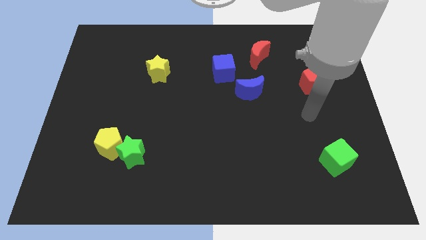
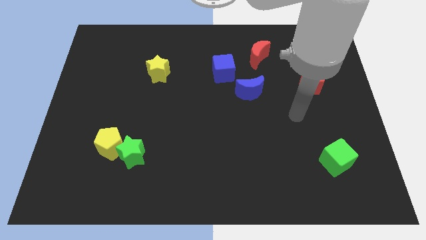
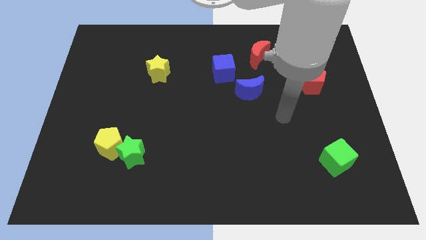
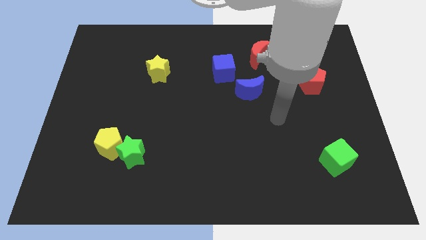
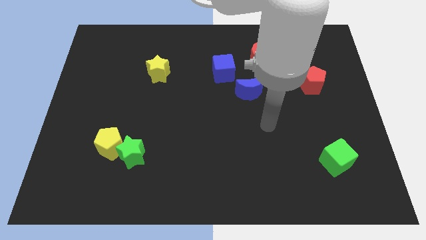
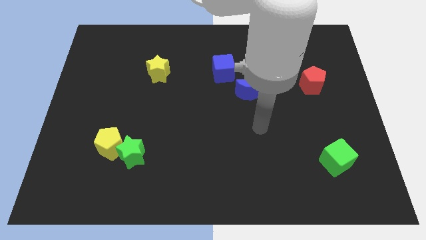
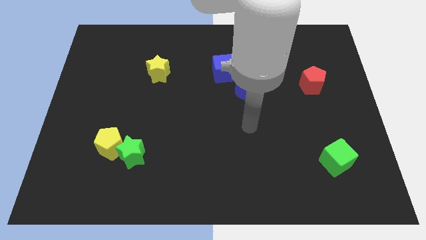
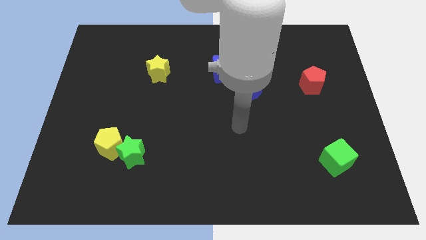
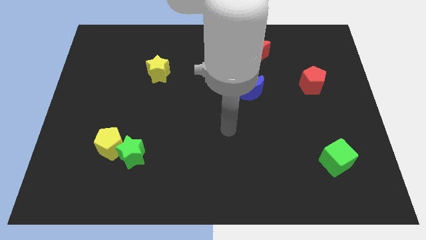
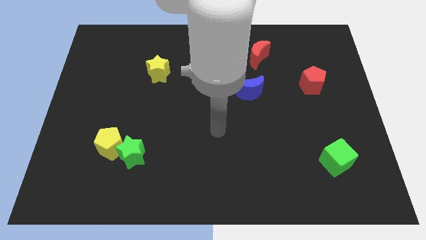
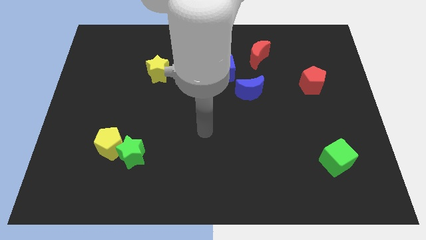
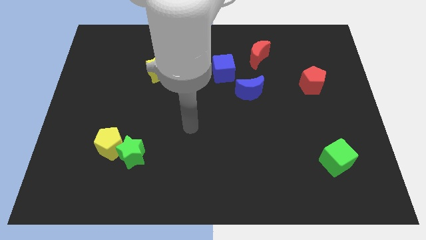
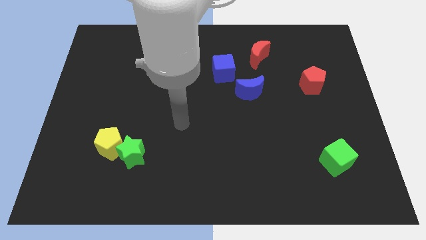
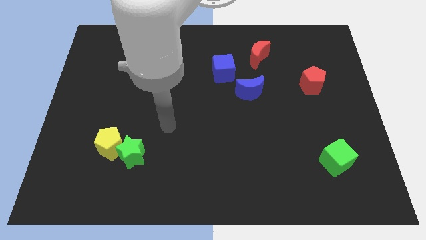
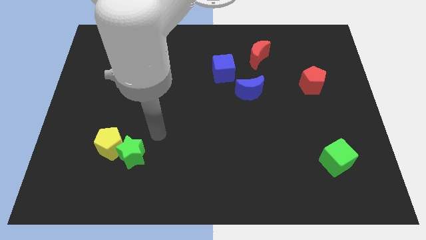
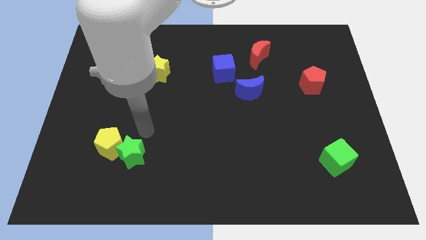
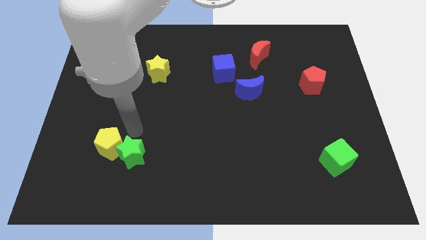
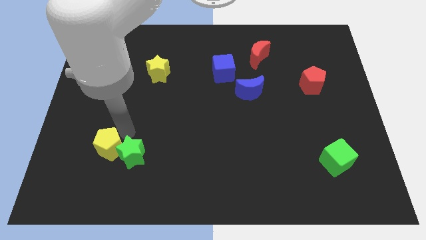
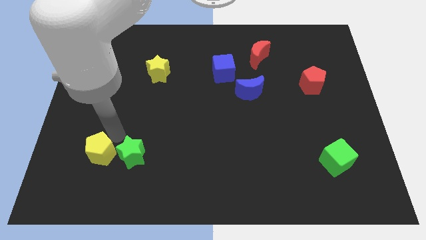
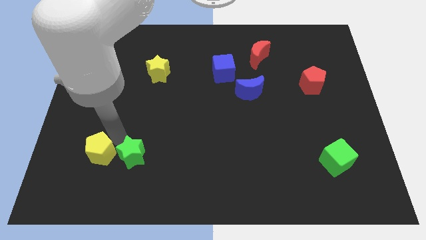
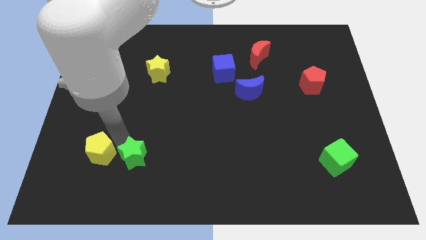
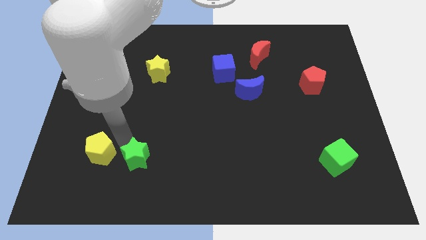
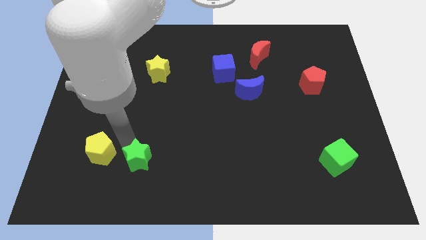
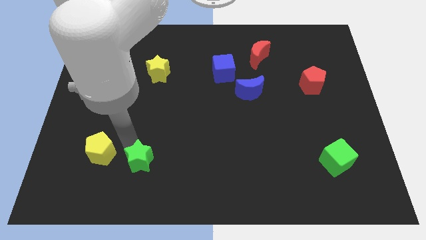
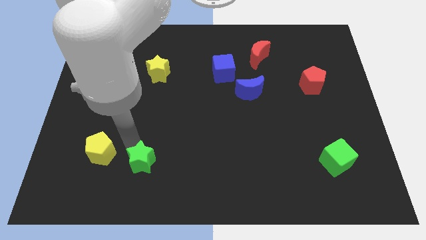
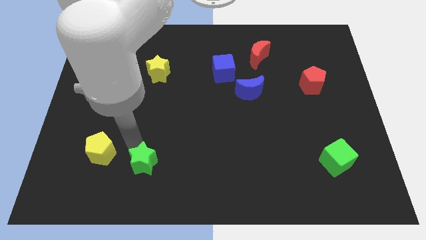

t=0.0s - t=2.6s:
separate the green star from the yellow pentagon

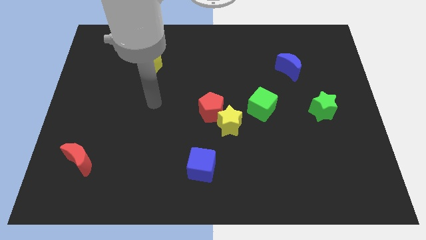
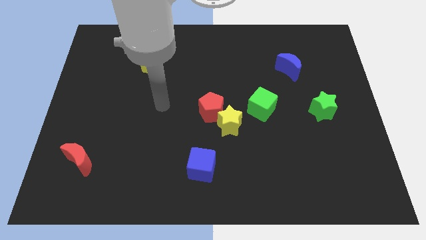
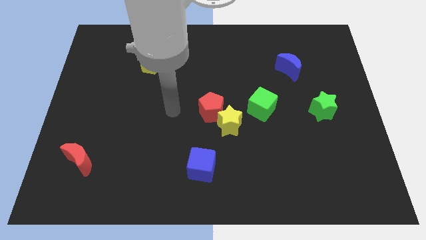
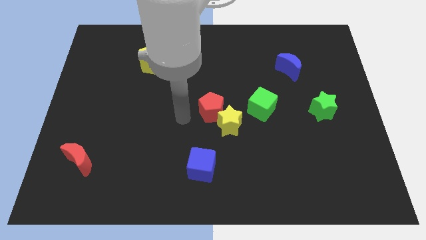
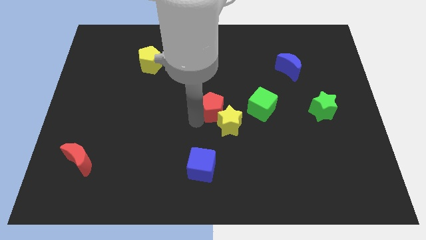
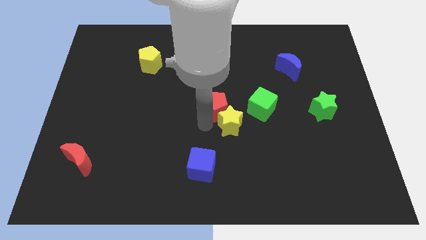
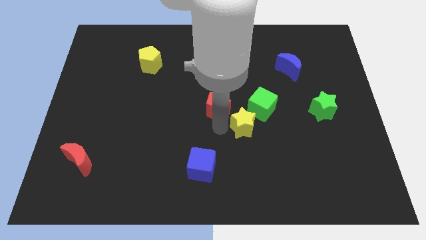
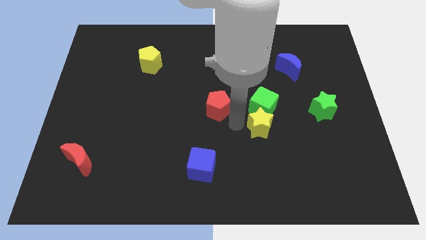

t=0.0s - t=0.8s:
separate the red pentagon from the yellow star

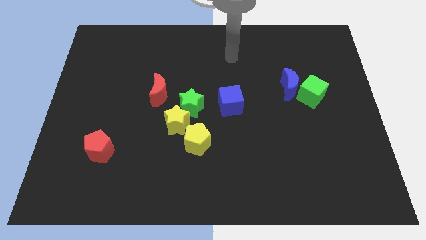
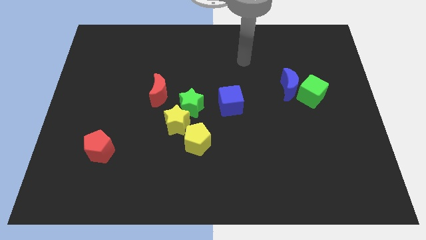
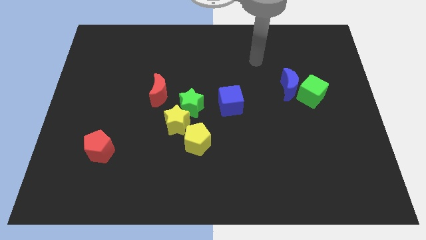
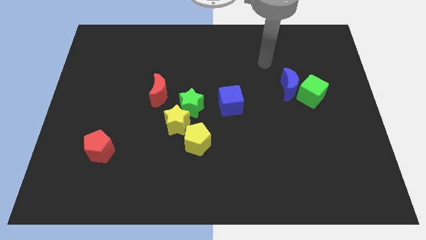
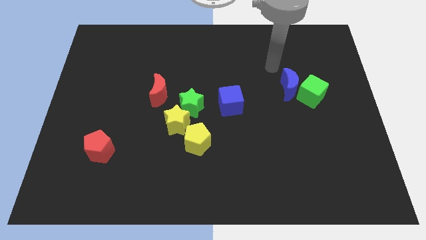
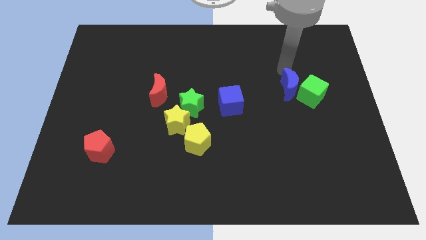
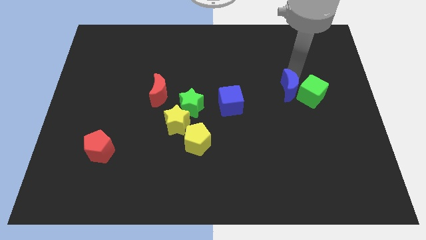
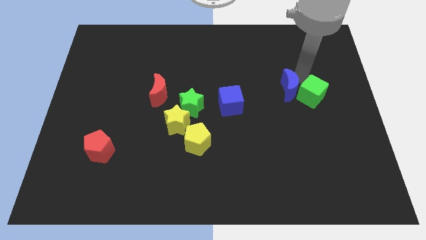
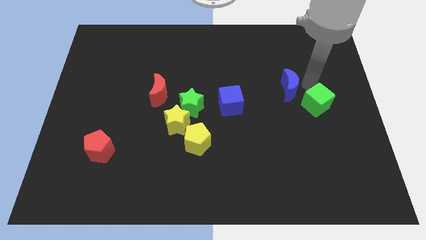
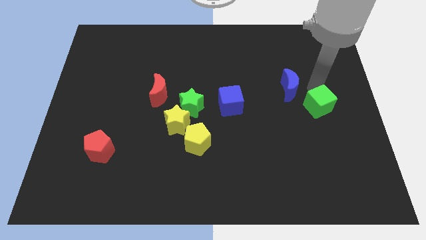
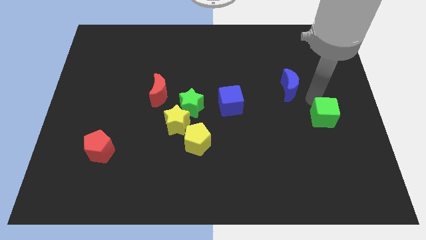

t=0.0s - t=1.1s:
move the blue moon away from the green cube

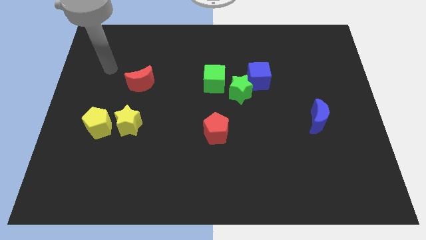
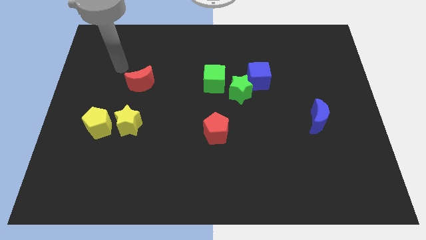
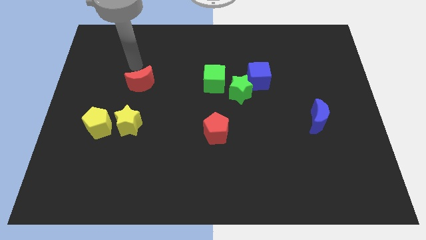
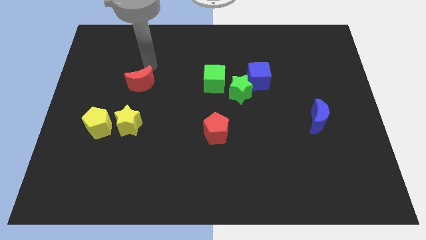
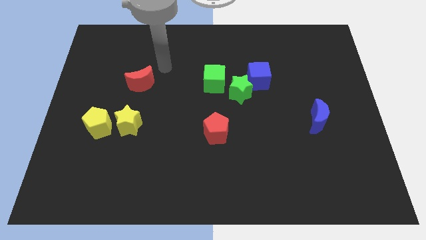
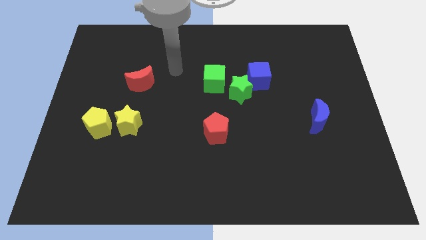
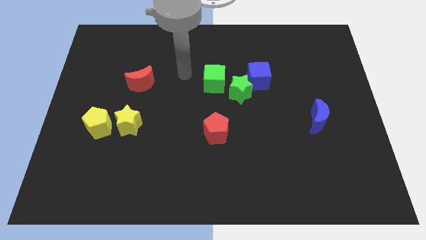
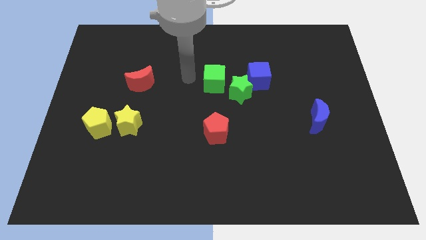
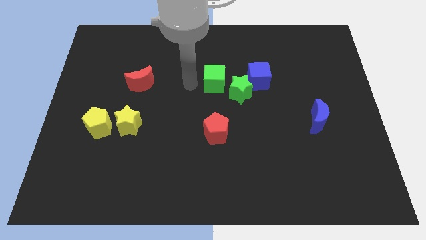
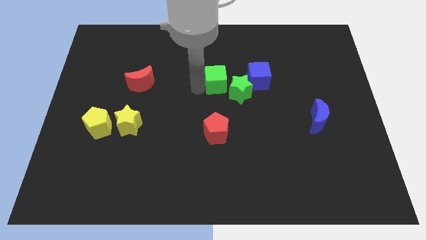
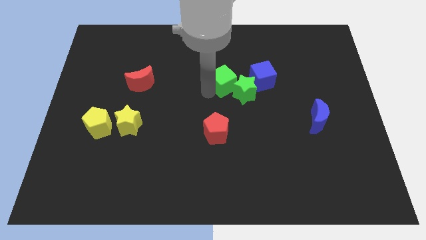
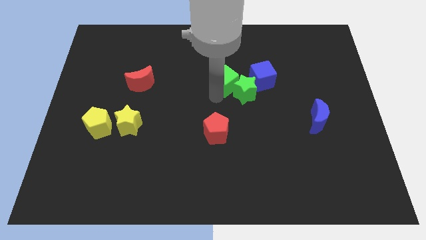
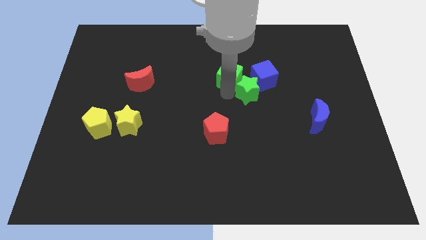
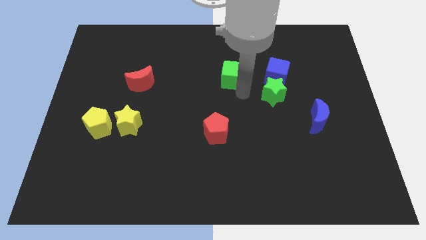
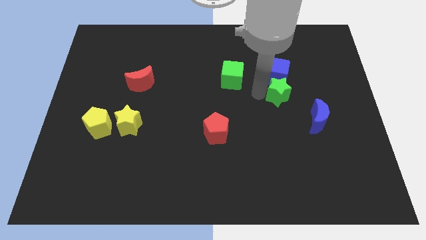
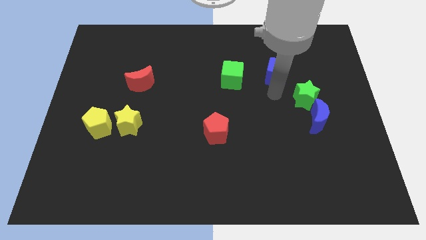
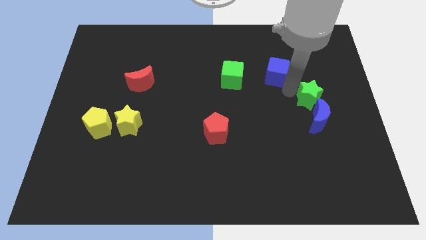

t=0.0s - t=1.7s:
pull the blue cube apart from the green star

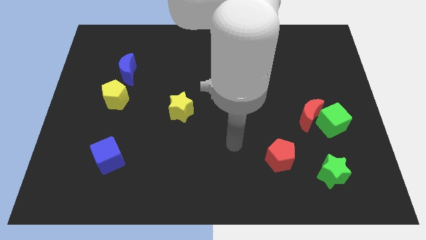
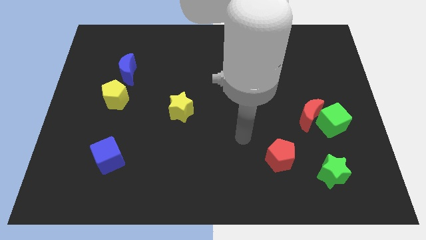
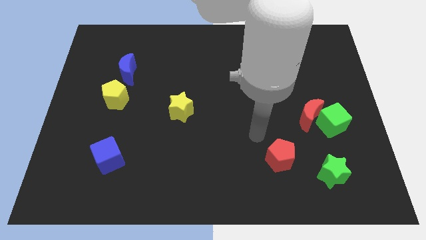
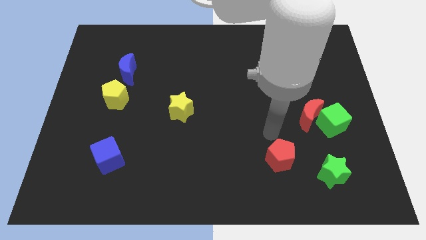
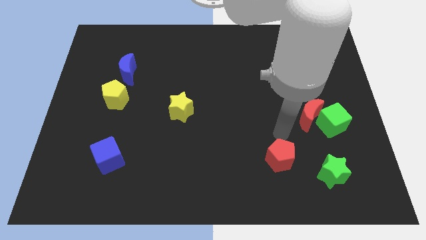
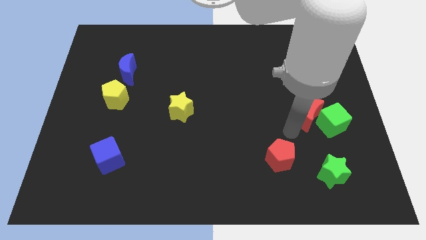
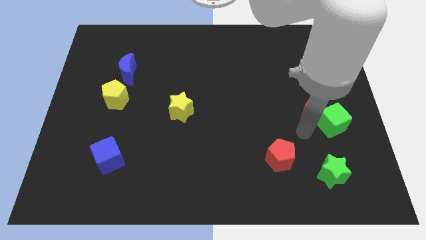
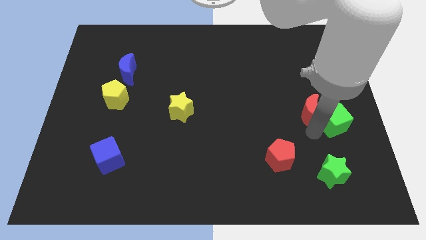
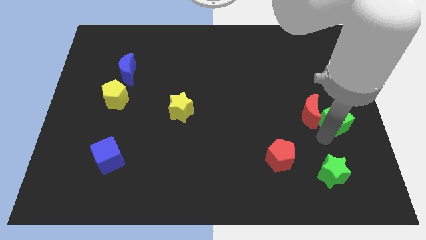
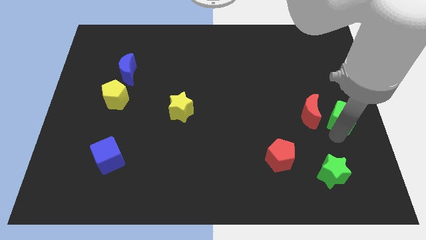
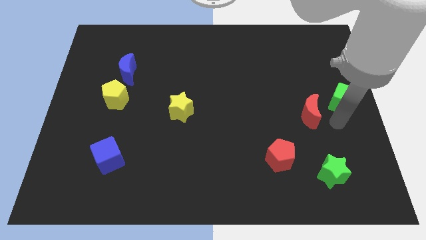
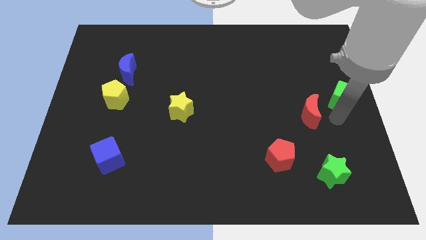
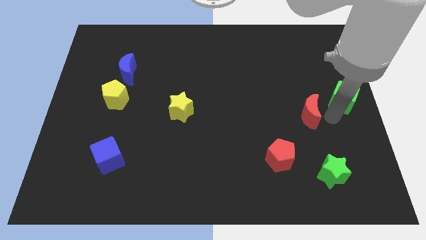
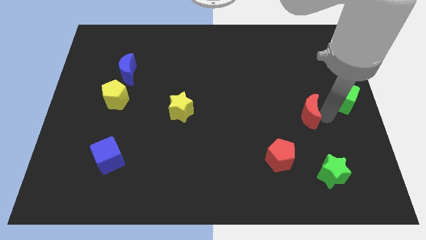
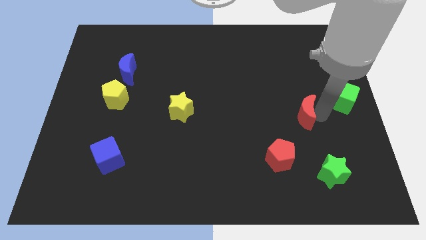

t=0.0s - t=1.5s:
separate the red moon from the green cube

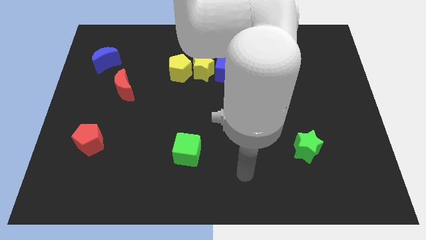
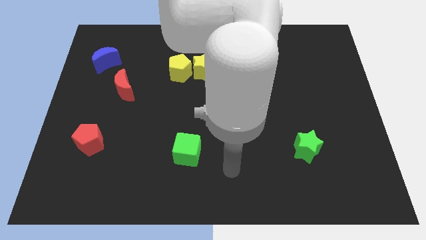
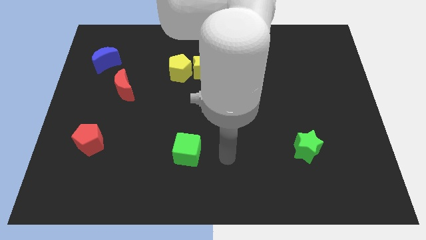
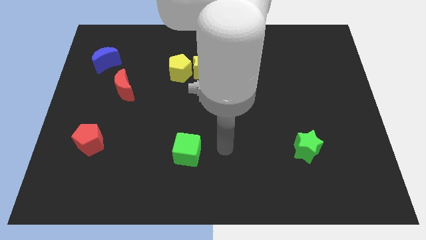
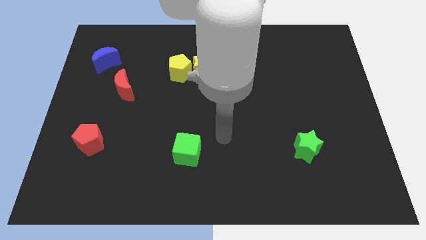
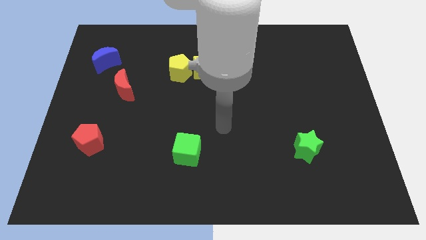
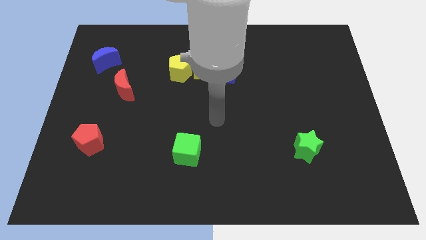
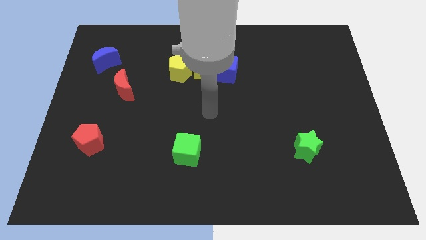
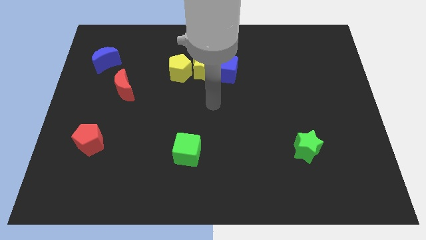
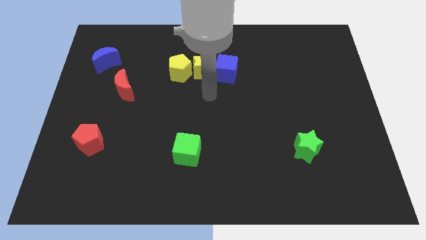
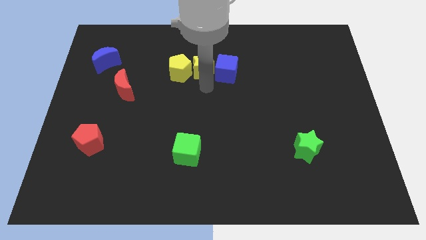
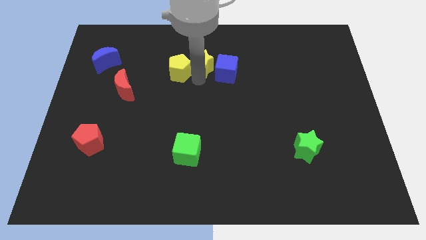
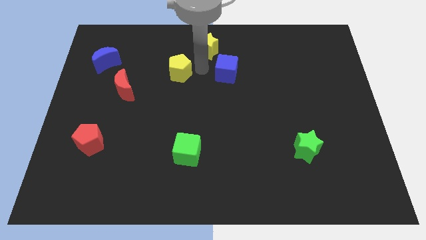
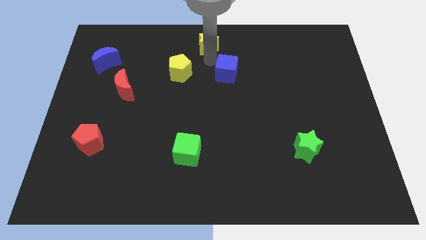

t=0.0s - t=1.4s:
separate the blue cube from the yellow star
